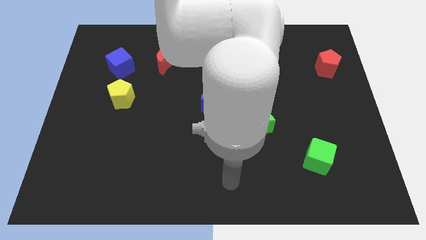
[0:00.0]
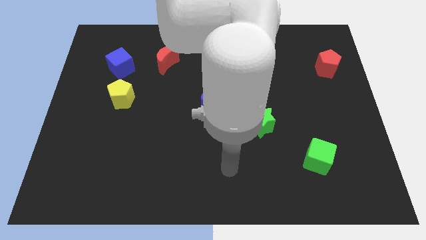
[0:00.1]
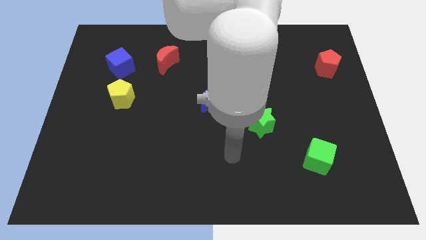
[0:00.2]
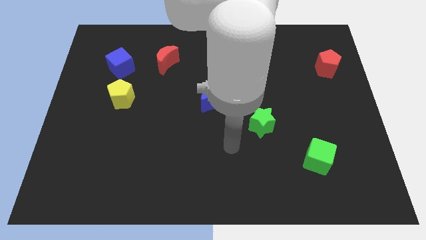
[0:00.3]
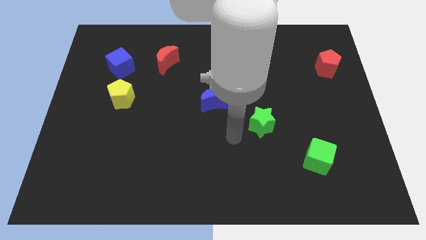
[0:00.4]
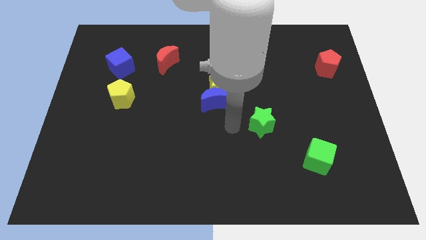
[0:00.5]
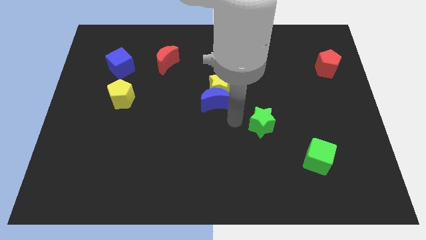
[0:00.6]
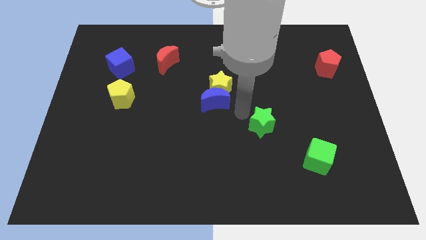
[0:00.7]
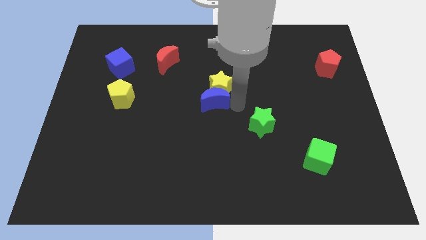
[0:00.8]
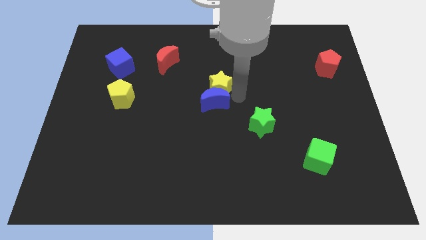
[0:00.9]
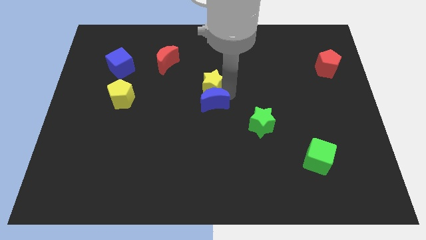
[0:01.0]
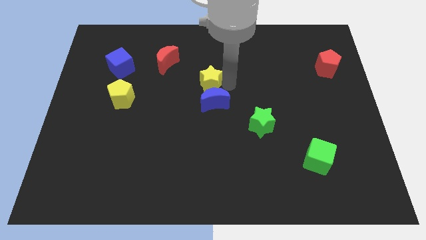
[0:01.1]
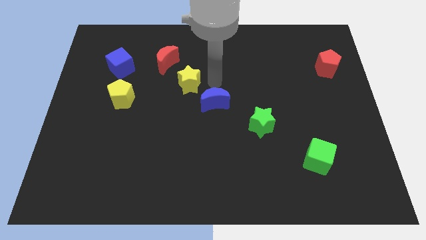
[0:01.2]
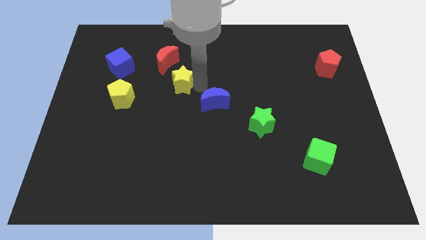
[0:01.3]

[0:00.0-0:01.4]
move the blue moon away from the yellow star

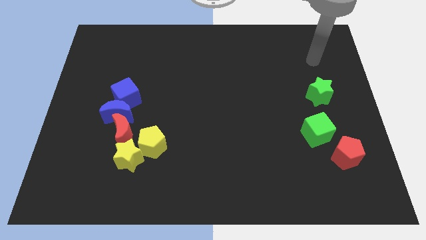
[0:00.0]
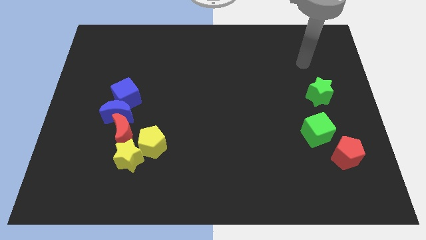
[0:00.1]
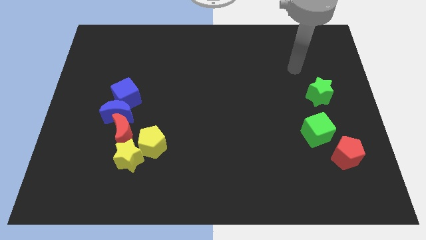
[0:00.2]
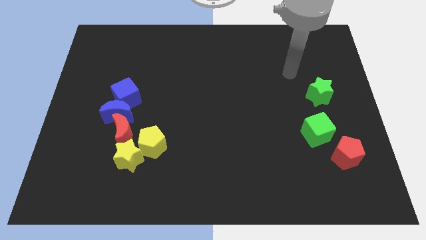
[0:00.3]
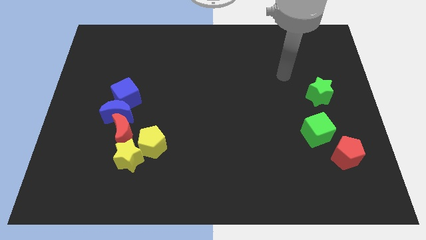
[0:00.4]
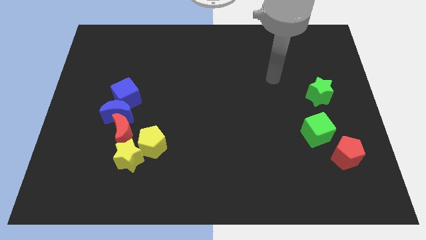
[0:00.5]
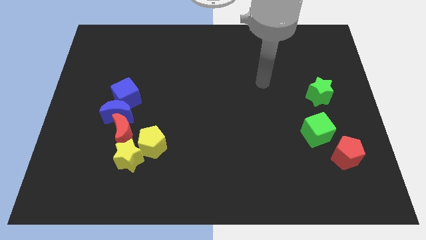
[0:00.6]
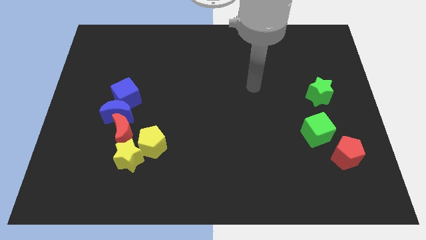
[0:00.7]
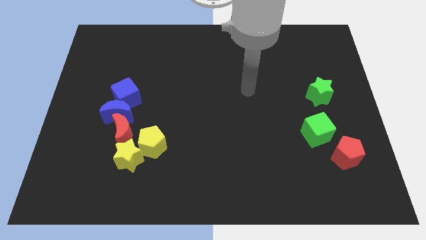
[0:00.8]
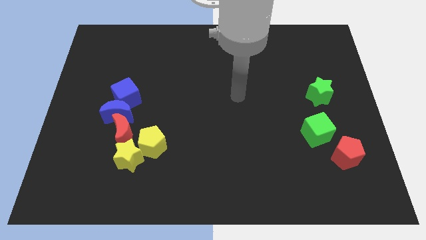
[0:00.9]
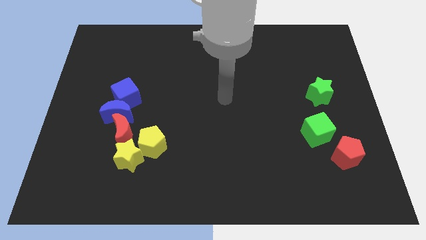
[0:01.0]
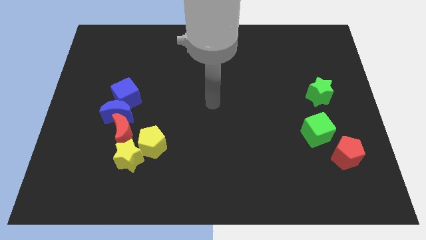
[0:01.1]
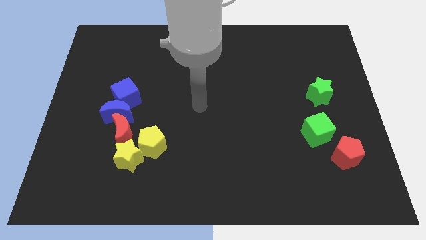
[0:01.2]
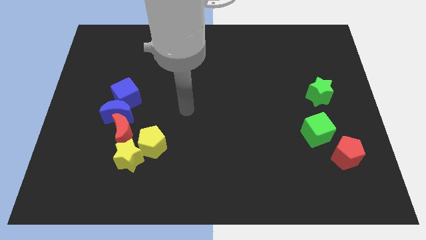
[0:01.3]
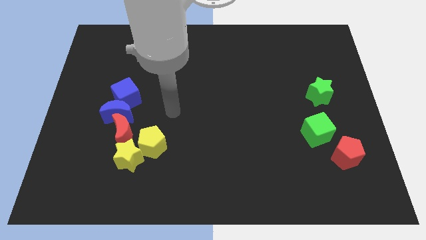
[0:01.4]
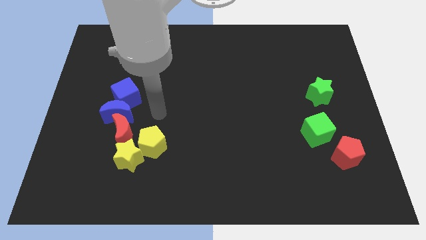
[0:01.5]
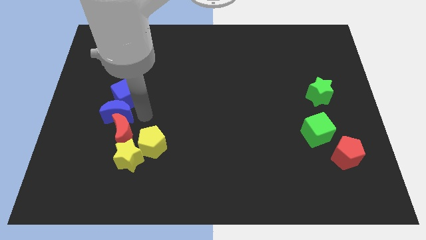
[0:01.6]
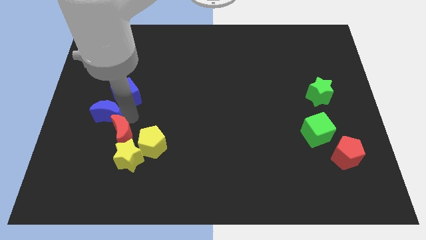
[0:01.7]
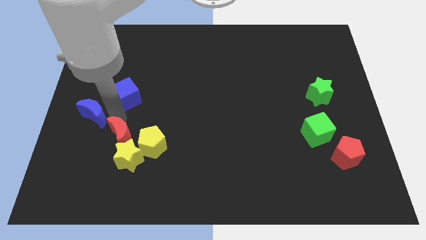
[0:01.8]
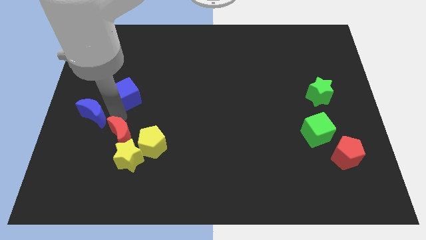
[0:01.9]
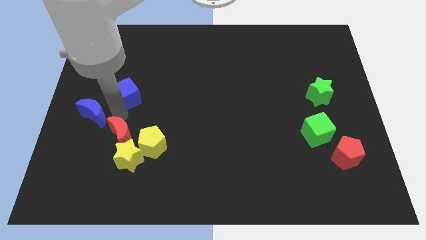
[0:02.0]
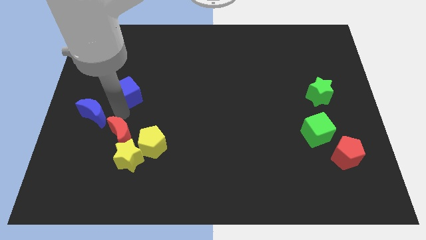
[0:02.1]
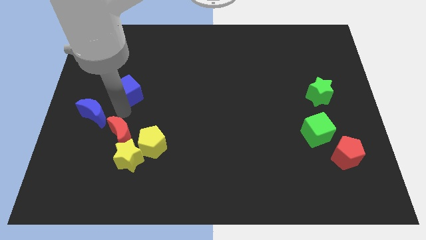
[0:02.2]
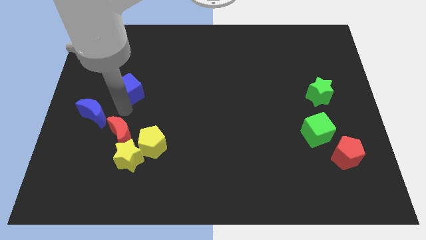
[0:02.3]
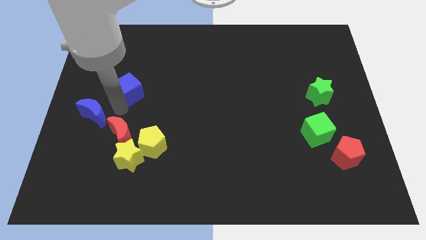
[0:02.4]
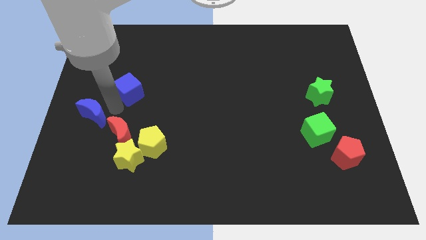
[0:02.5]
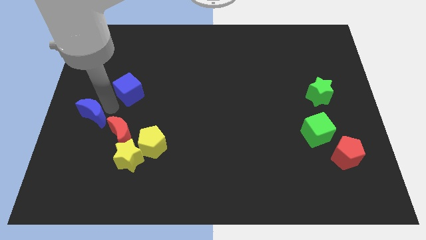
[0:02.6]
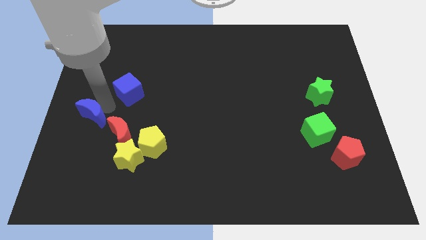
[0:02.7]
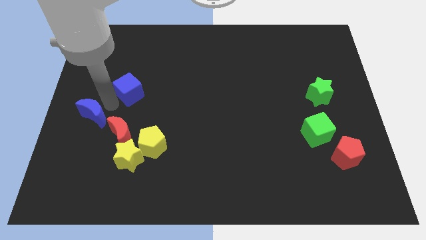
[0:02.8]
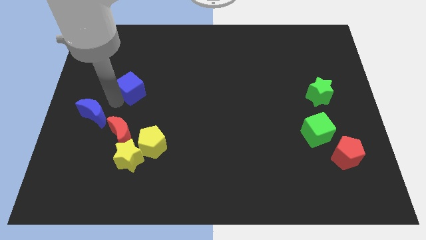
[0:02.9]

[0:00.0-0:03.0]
separate the blue cube from the blue moon

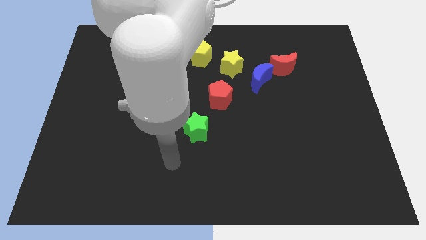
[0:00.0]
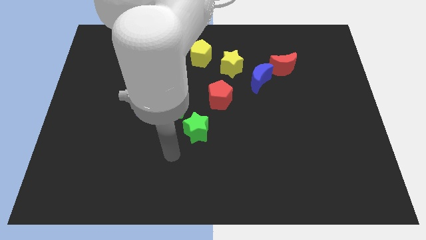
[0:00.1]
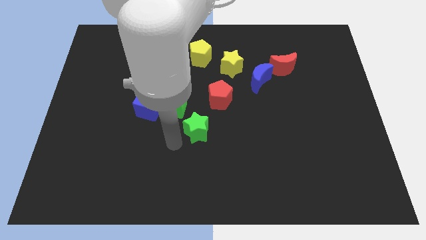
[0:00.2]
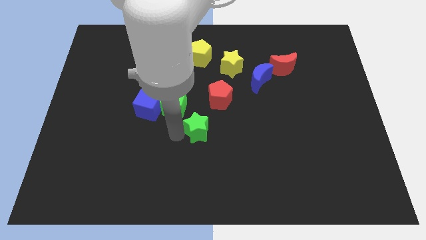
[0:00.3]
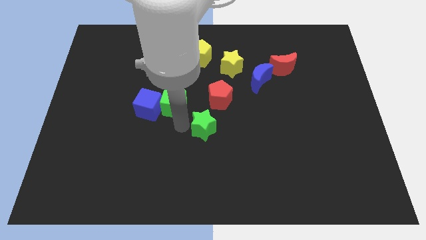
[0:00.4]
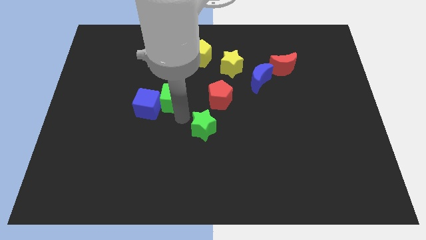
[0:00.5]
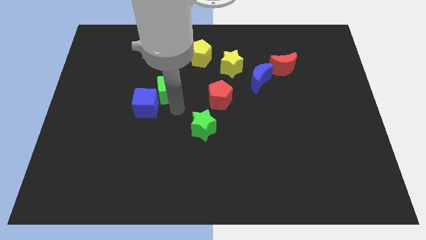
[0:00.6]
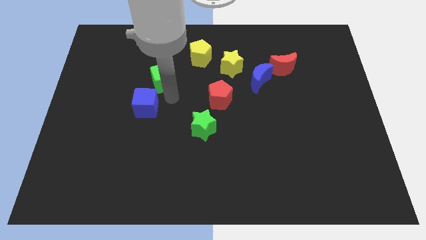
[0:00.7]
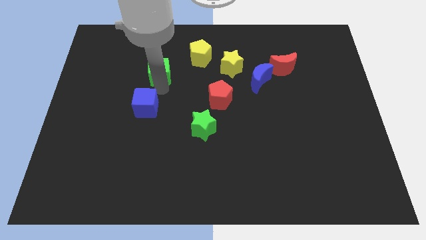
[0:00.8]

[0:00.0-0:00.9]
pull the blue cube apart from the green cube

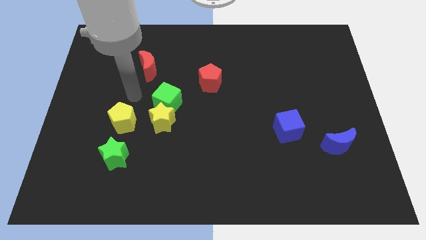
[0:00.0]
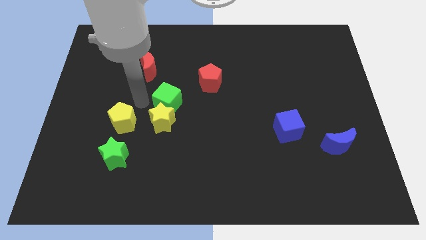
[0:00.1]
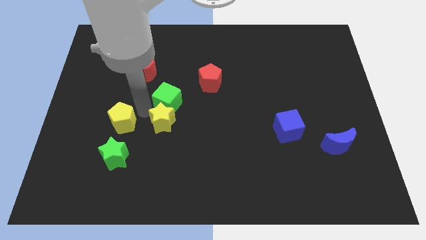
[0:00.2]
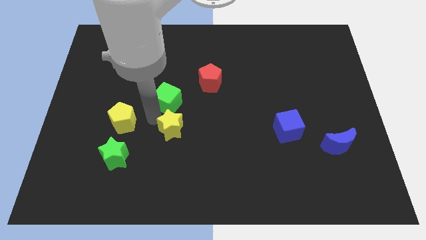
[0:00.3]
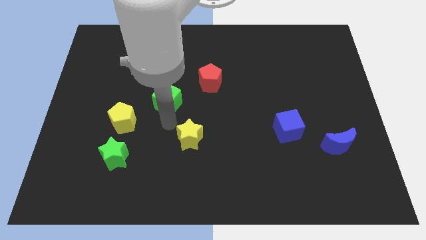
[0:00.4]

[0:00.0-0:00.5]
move the green cube away from the yellow star

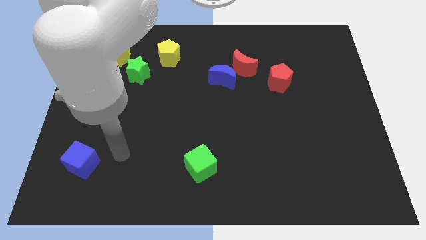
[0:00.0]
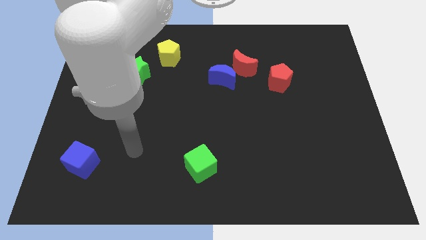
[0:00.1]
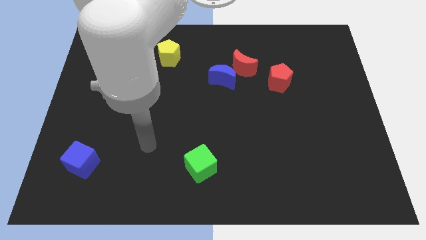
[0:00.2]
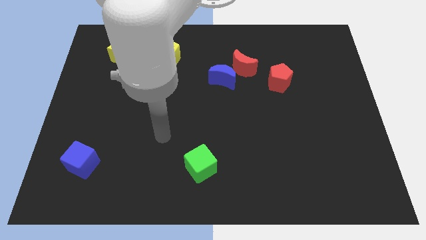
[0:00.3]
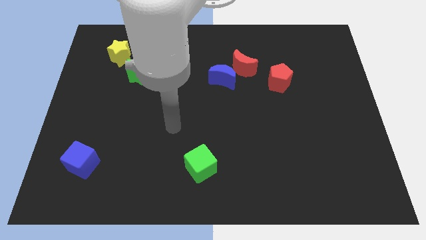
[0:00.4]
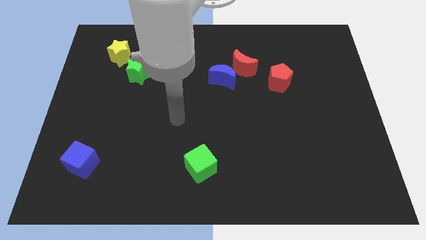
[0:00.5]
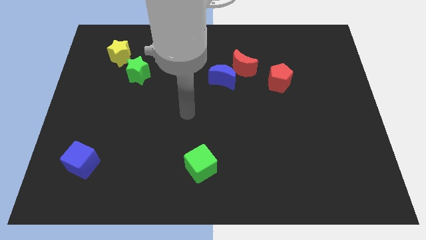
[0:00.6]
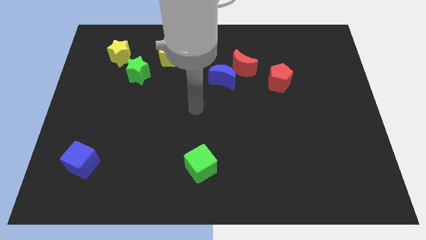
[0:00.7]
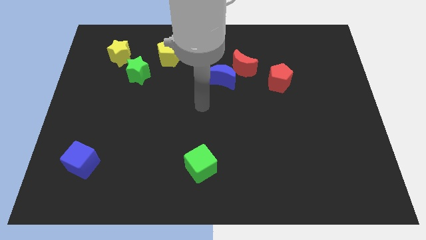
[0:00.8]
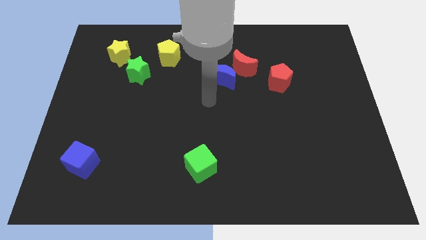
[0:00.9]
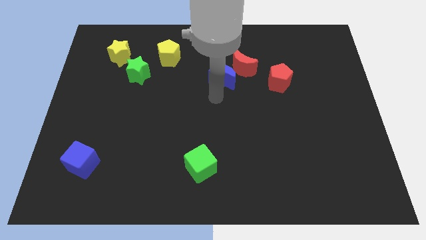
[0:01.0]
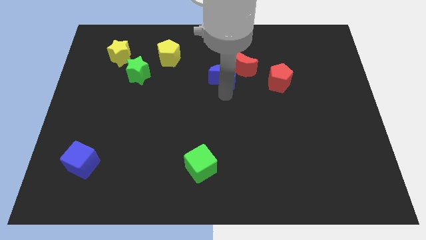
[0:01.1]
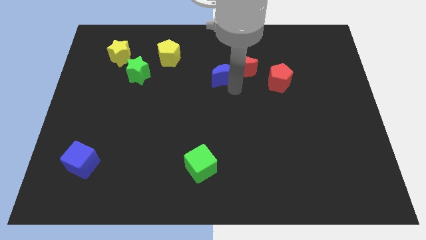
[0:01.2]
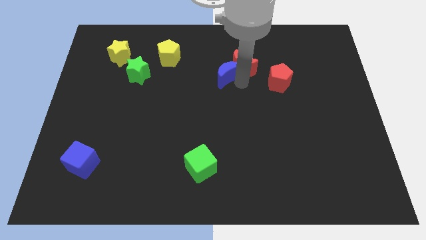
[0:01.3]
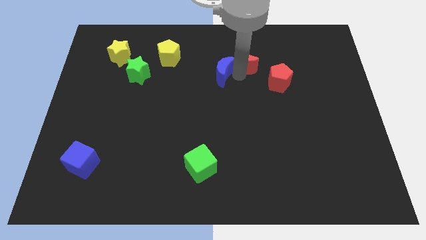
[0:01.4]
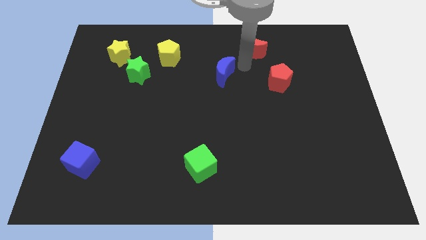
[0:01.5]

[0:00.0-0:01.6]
pull the blue moon apart from the red moon

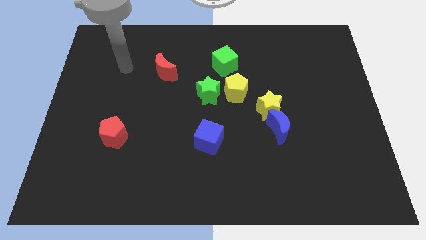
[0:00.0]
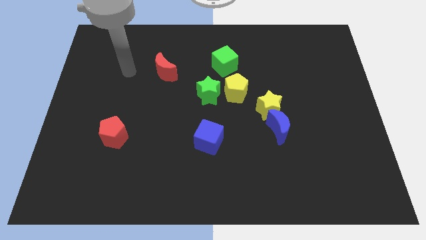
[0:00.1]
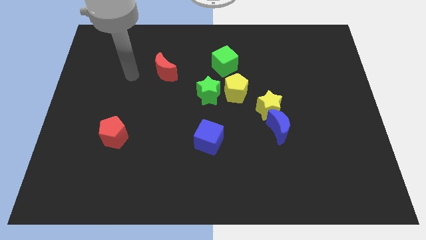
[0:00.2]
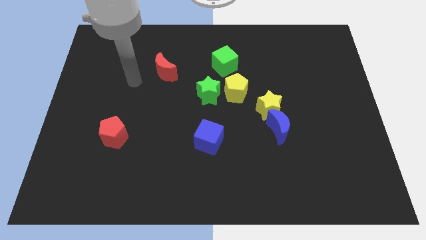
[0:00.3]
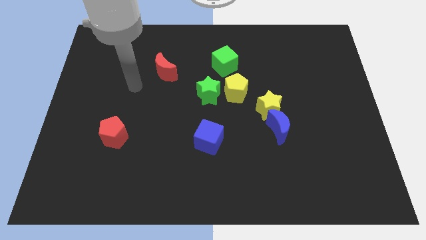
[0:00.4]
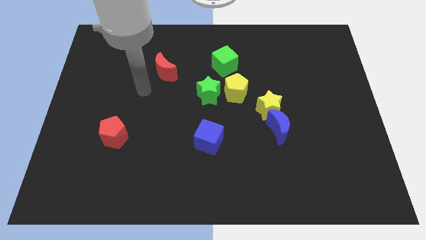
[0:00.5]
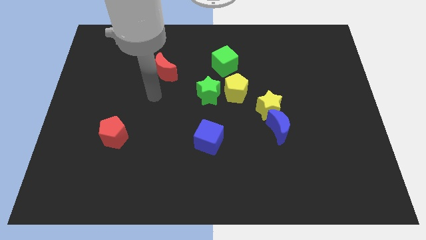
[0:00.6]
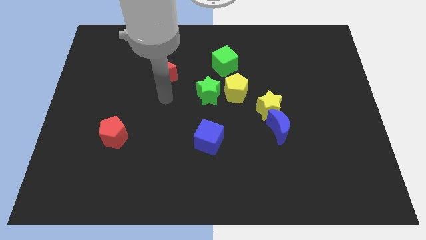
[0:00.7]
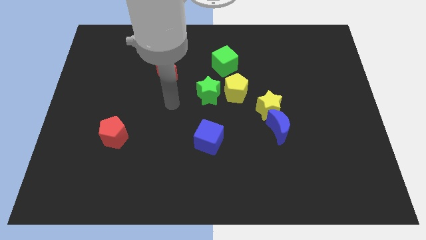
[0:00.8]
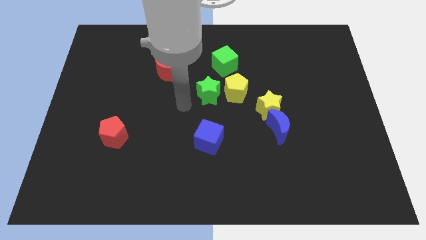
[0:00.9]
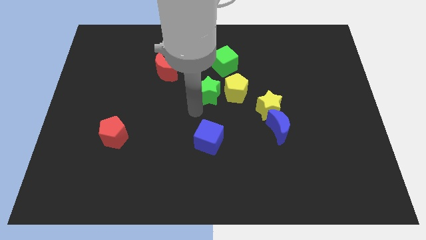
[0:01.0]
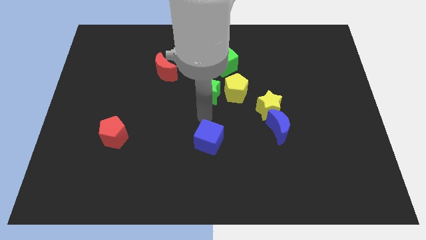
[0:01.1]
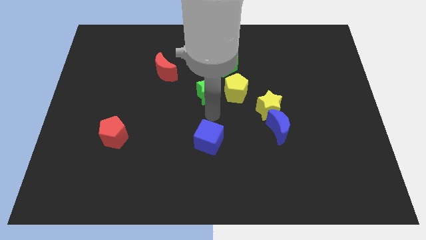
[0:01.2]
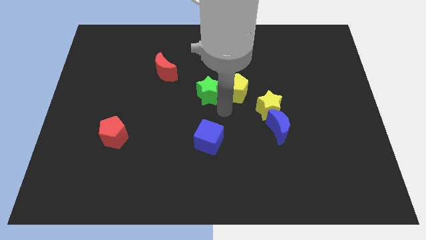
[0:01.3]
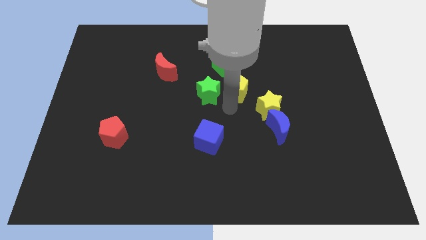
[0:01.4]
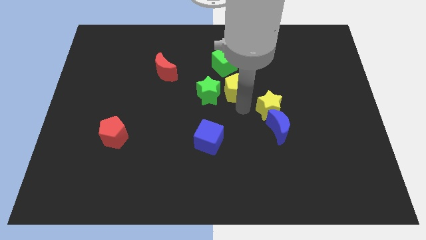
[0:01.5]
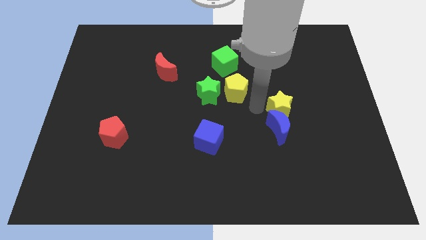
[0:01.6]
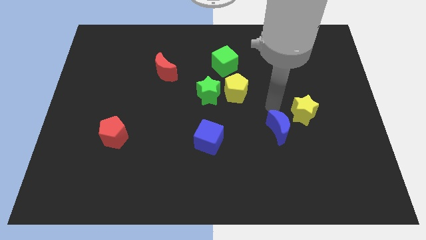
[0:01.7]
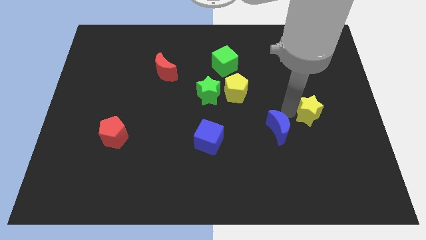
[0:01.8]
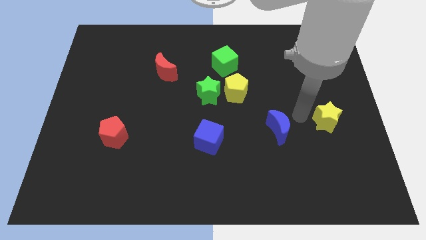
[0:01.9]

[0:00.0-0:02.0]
pull the blue moon apart from the yellow star
